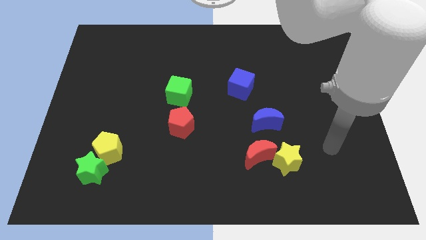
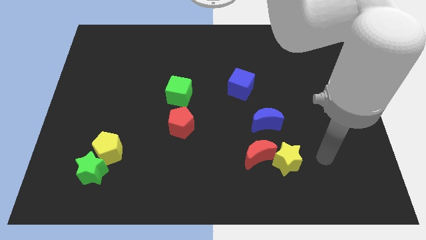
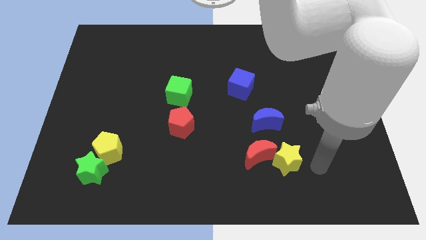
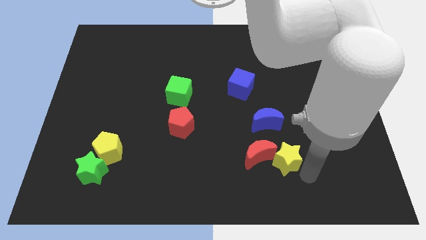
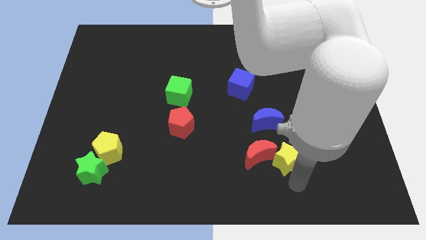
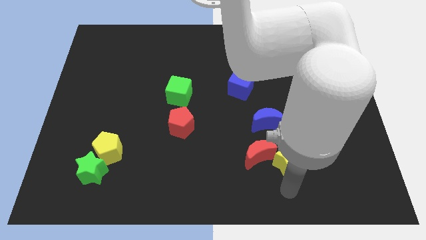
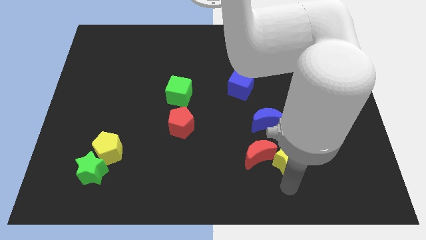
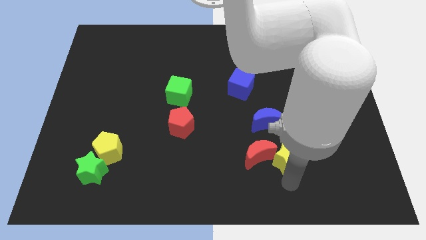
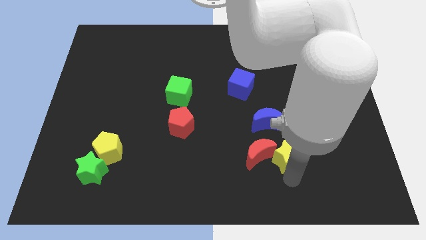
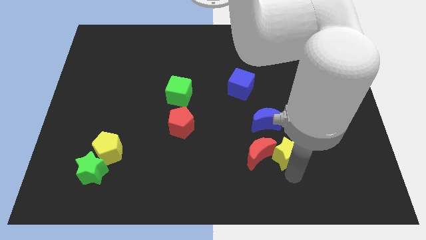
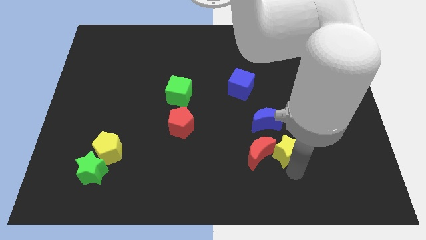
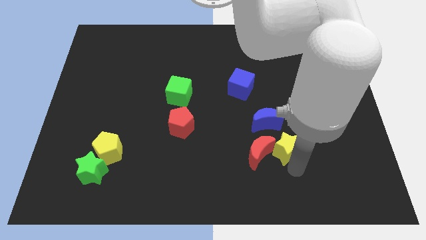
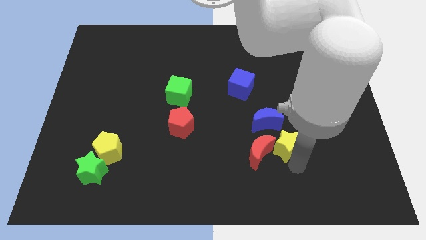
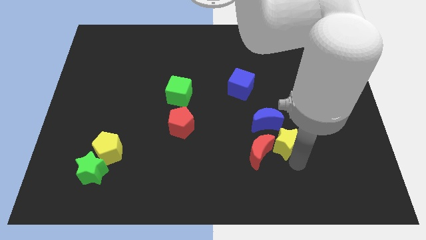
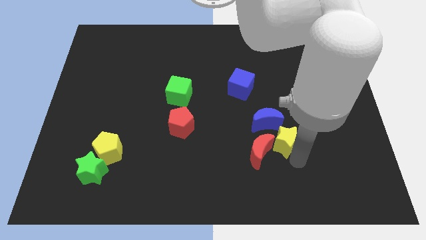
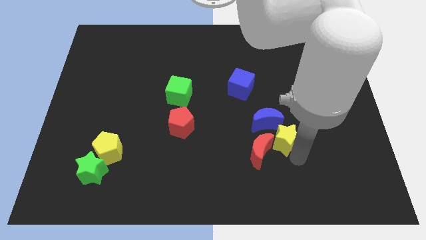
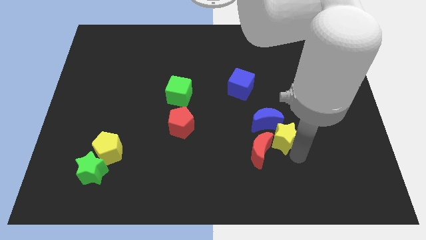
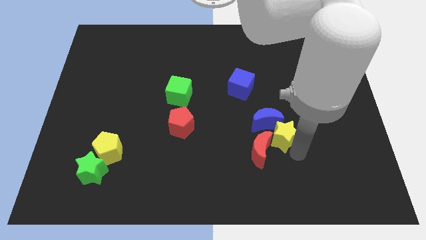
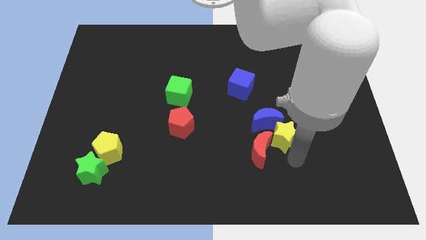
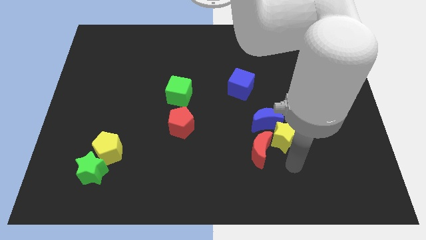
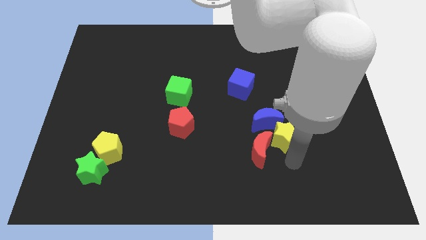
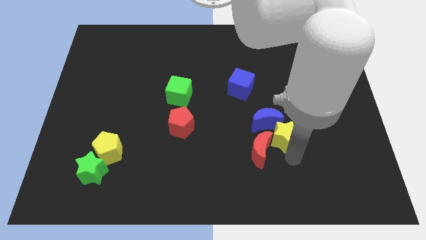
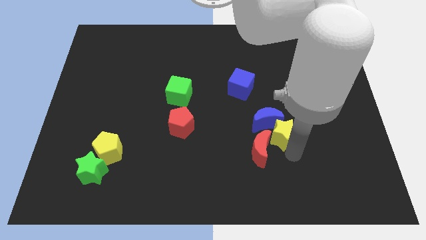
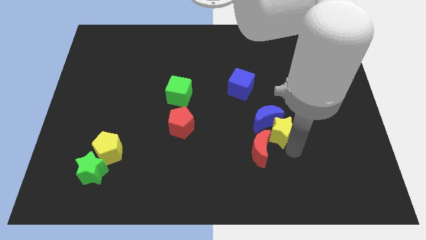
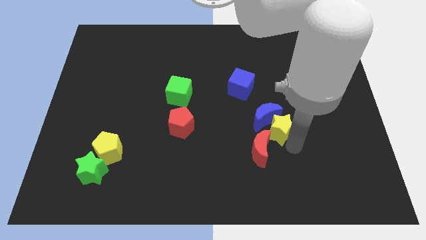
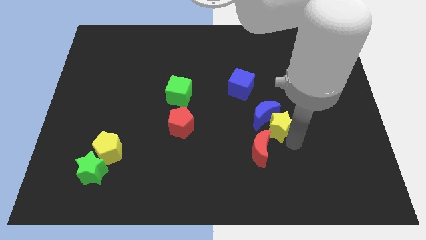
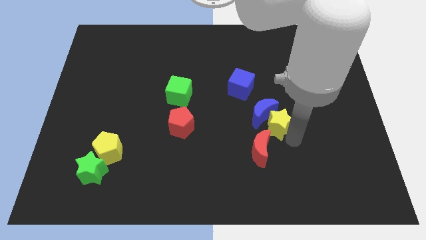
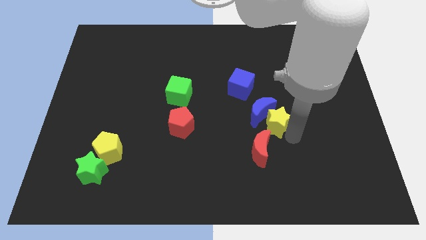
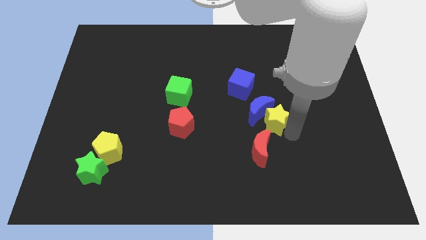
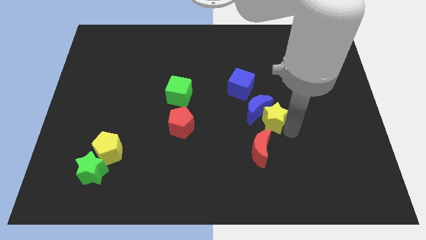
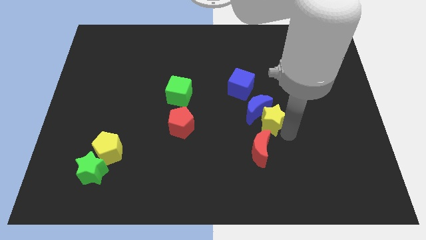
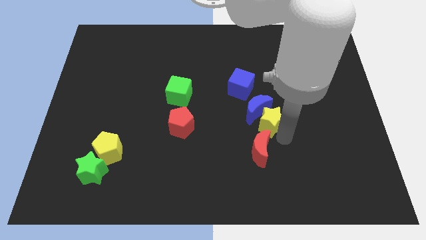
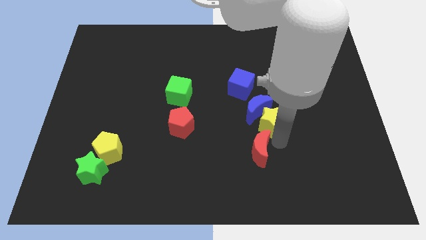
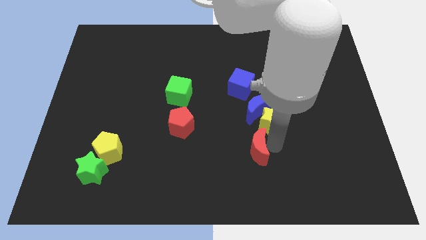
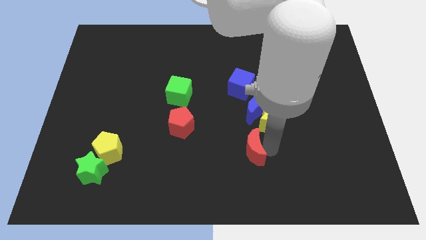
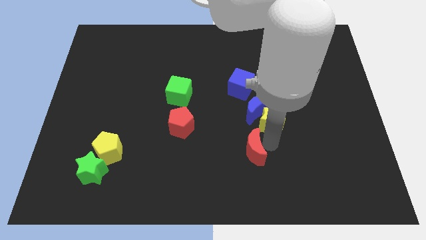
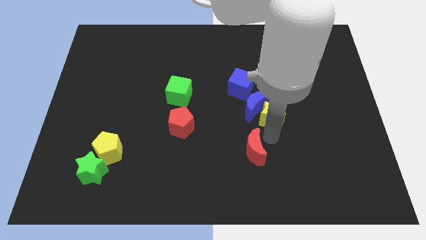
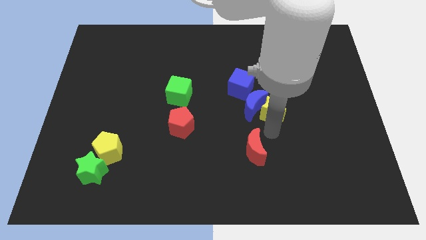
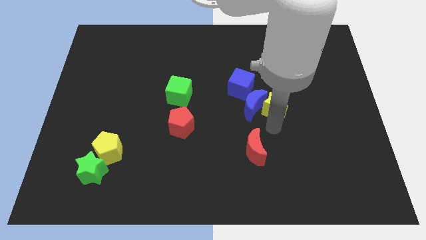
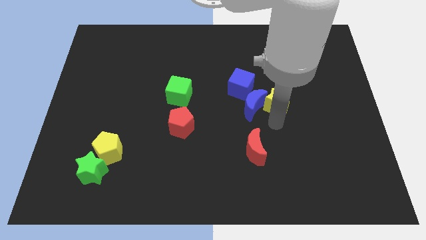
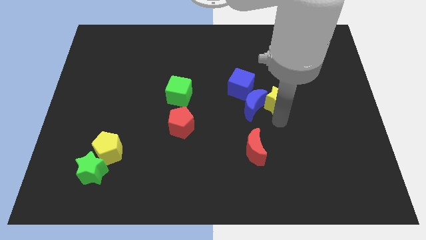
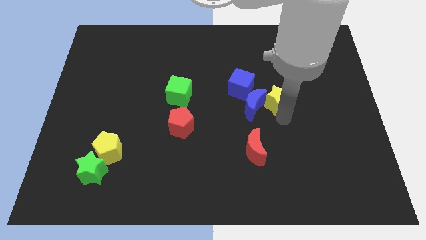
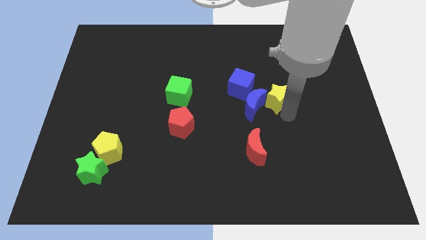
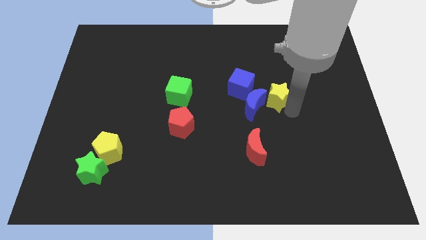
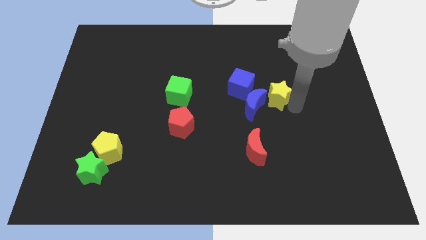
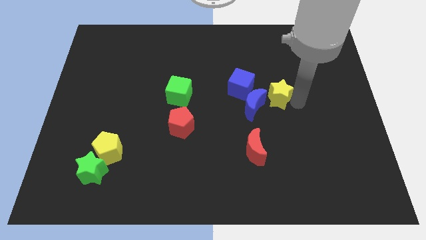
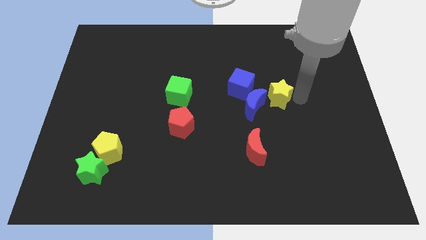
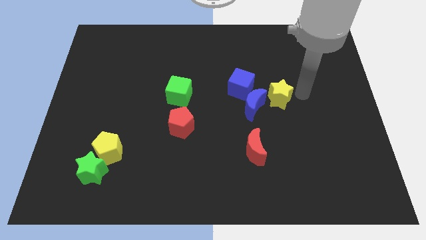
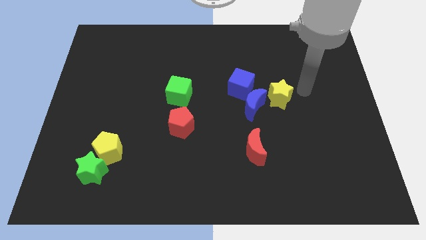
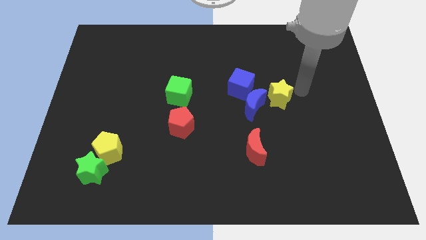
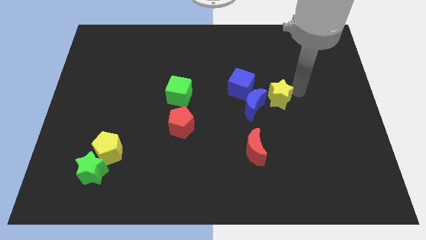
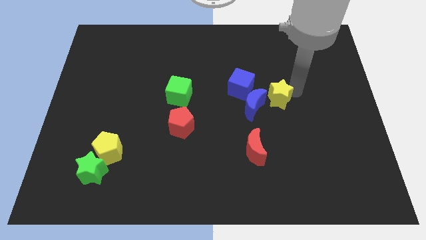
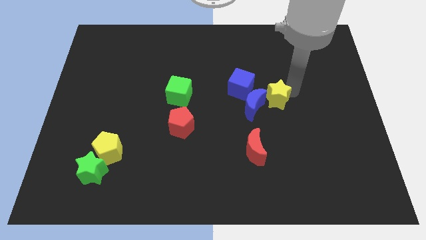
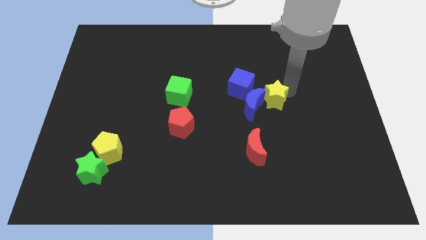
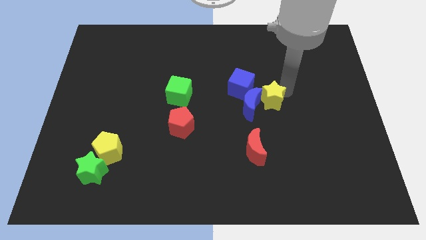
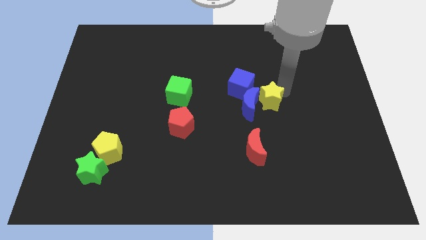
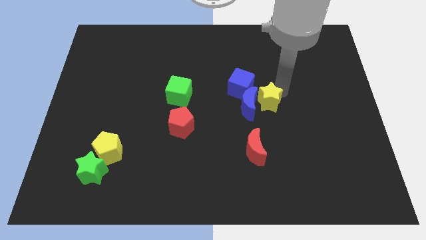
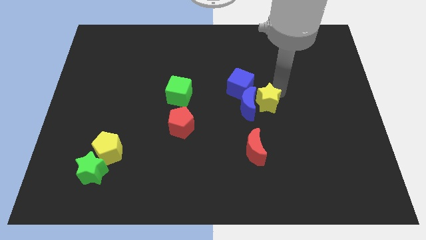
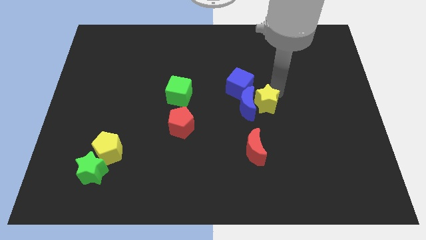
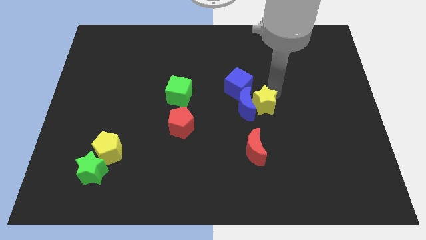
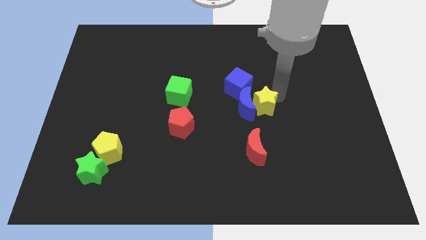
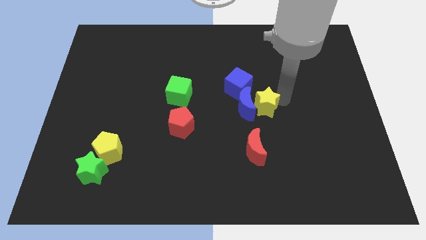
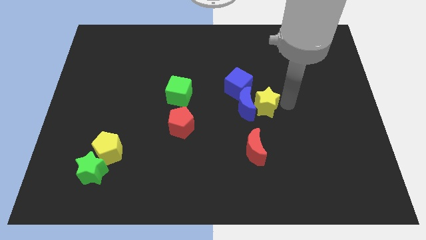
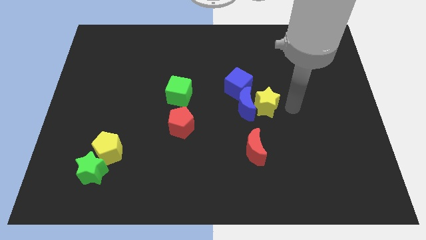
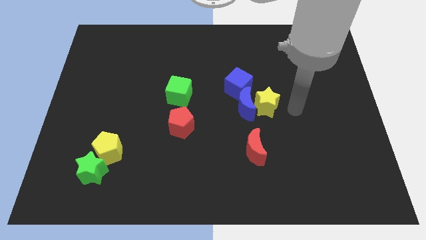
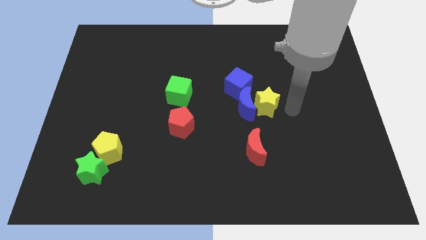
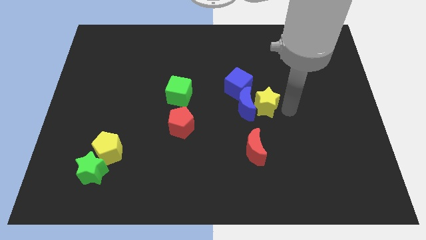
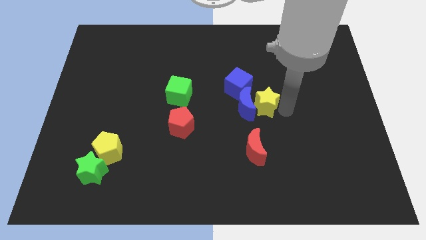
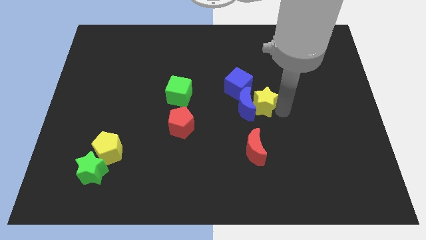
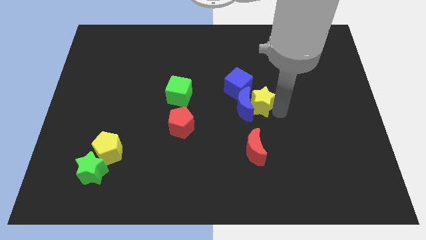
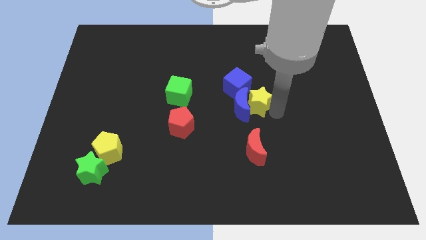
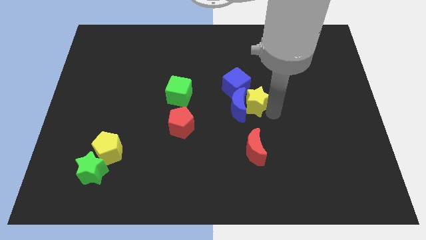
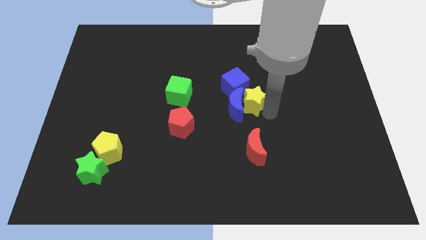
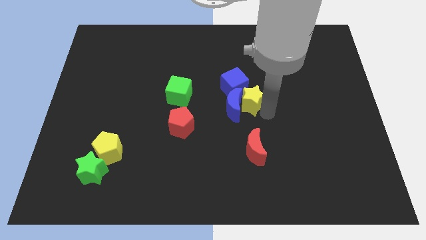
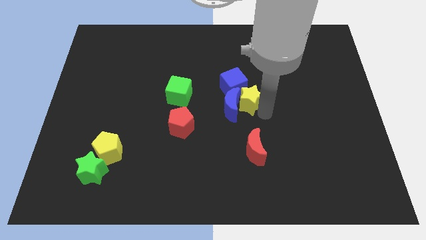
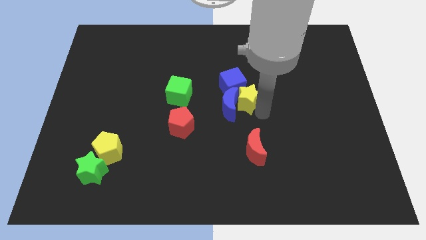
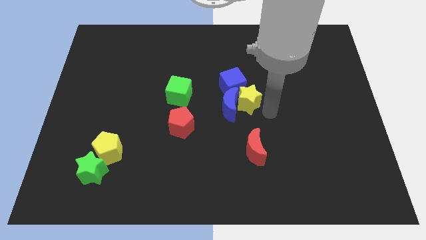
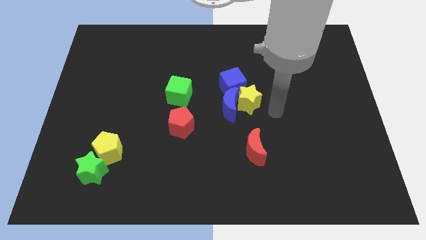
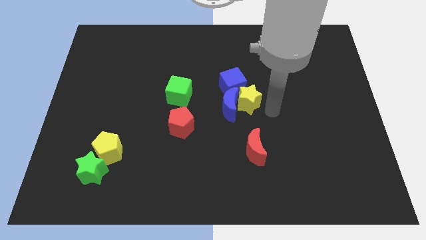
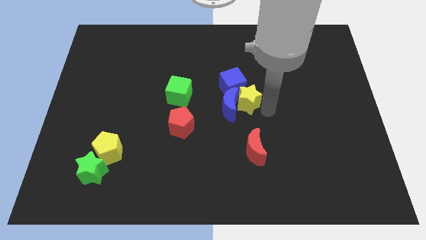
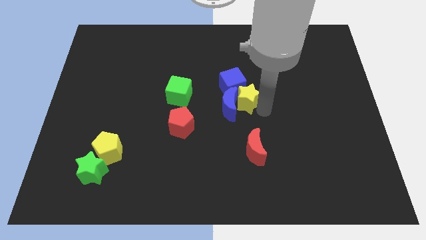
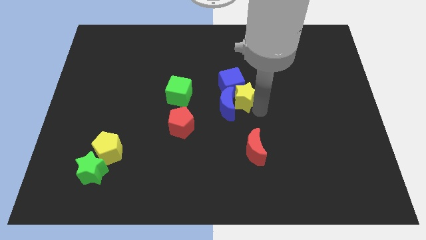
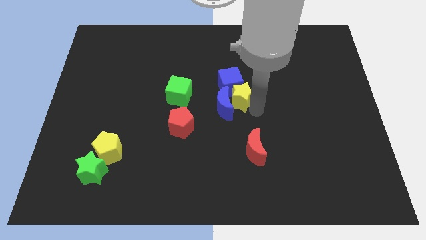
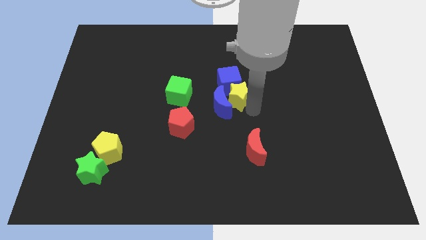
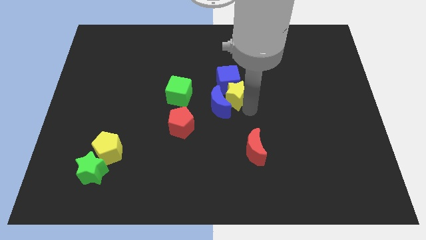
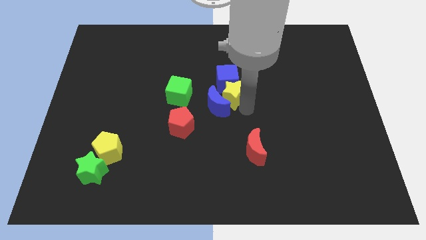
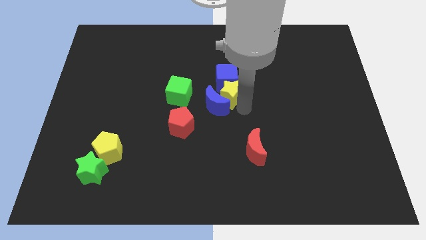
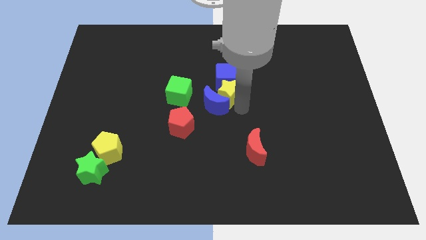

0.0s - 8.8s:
slide the yellow star upwards and to the left
